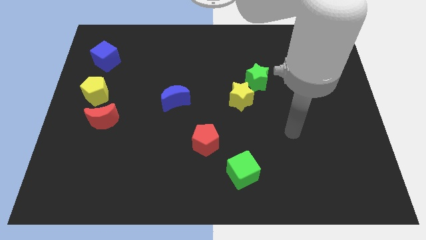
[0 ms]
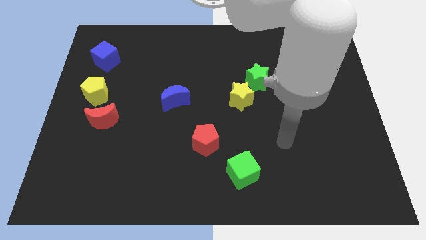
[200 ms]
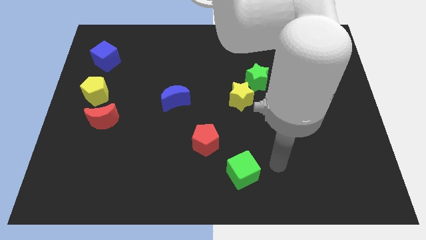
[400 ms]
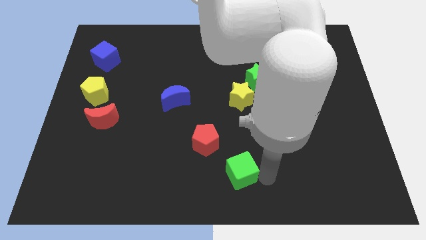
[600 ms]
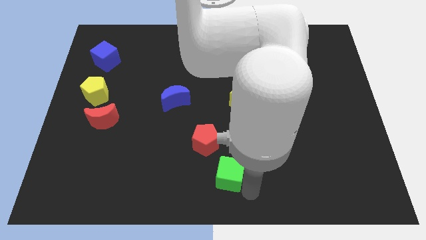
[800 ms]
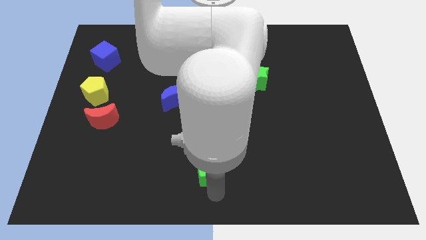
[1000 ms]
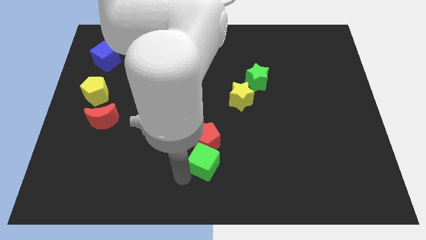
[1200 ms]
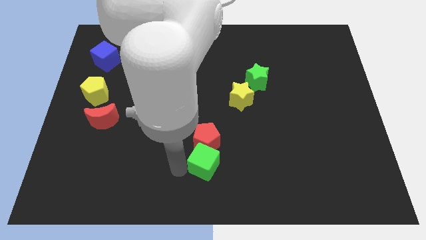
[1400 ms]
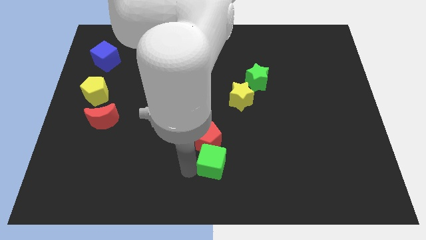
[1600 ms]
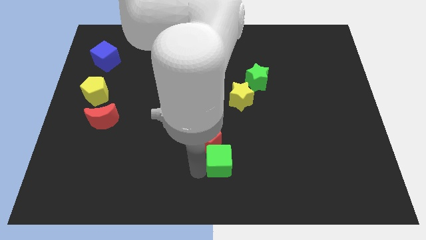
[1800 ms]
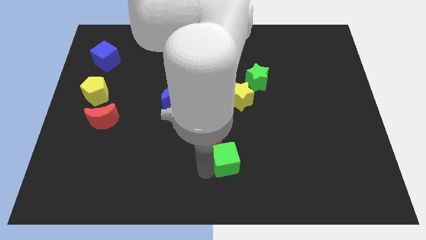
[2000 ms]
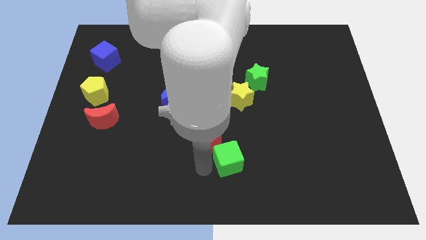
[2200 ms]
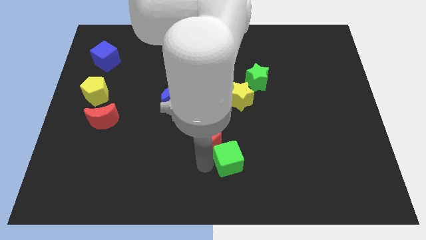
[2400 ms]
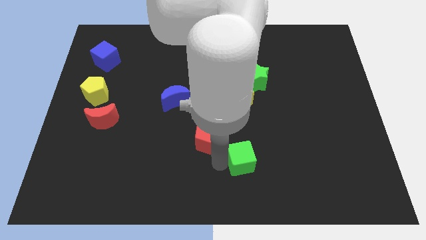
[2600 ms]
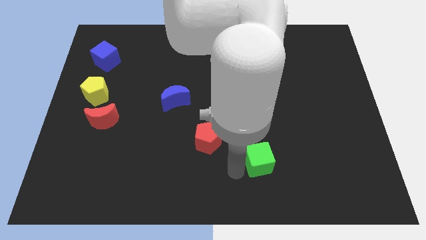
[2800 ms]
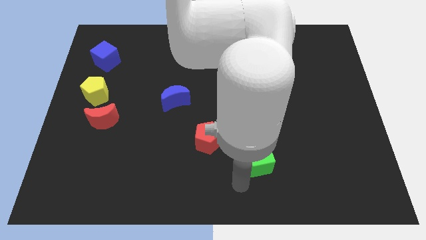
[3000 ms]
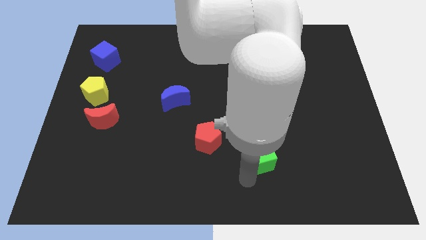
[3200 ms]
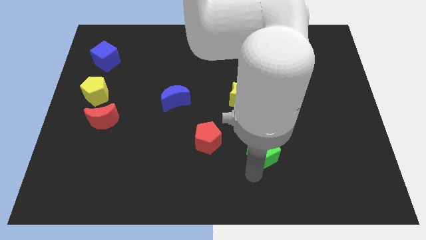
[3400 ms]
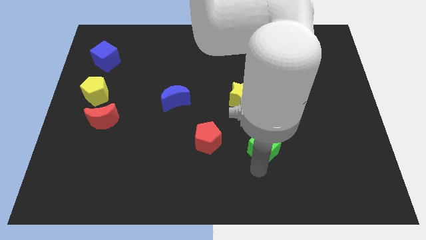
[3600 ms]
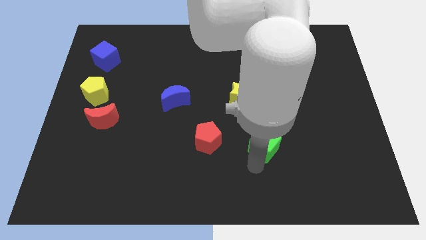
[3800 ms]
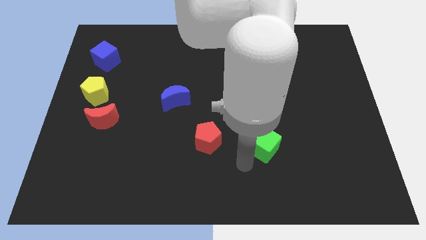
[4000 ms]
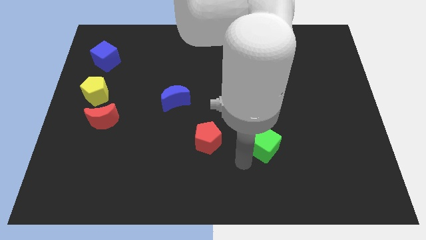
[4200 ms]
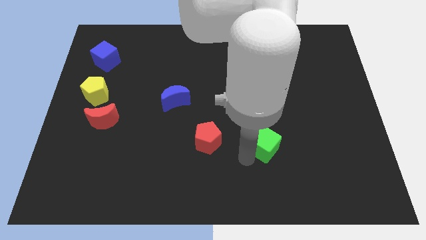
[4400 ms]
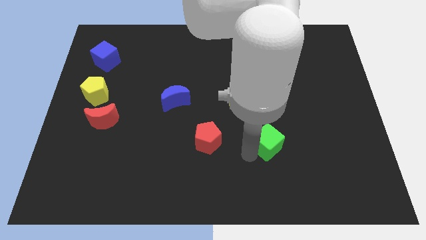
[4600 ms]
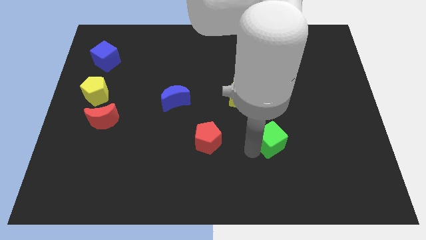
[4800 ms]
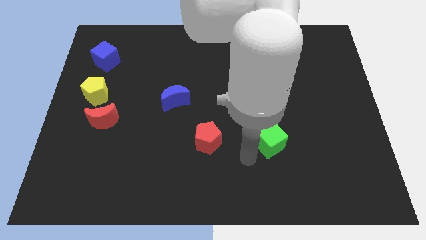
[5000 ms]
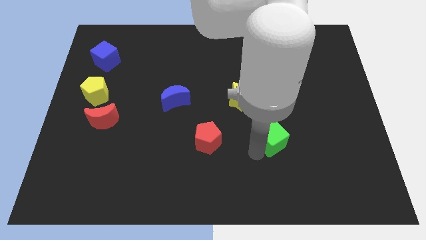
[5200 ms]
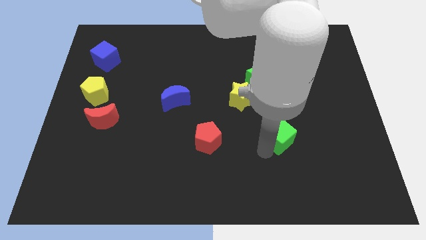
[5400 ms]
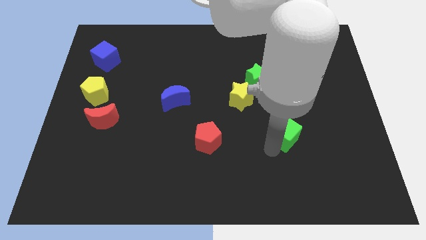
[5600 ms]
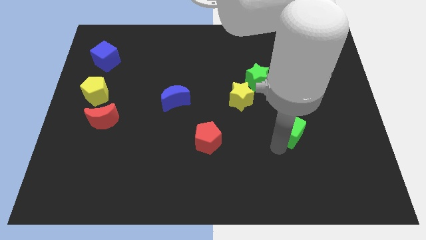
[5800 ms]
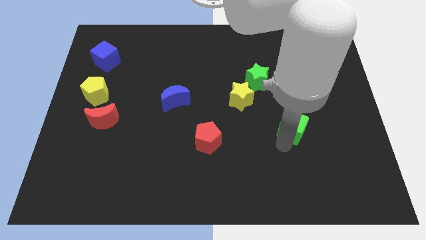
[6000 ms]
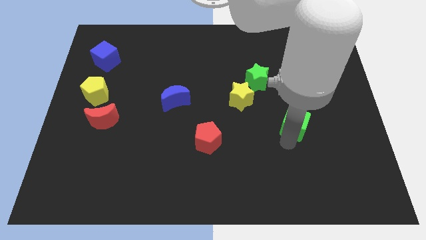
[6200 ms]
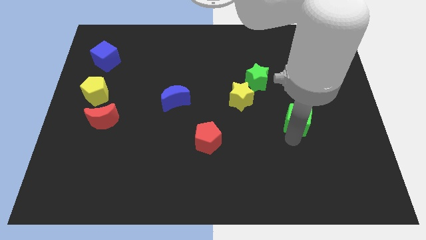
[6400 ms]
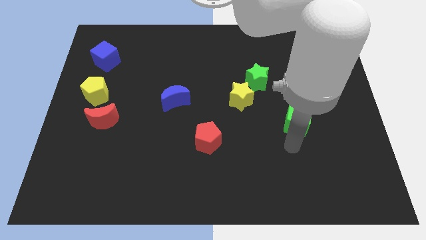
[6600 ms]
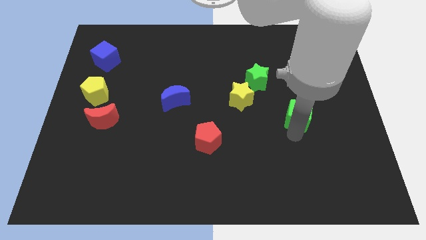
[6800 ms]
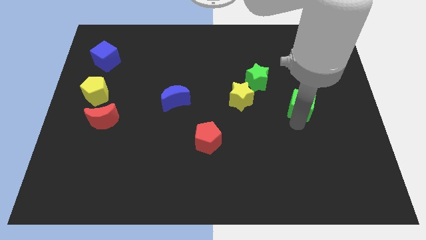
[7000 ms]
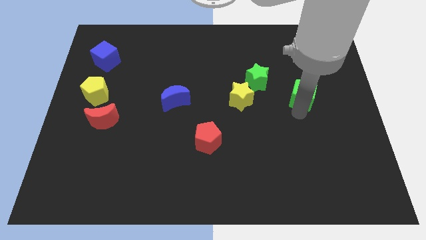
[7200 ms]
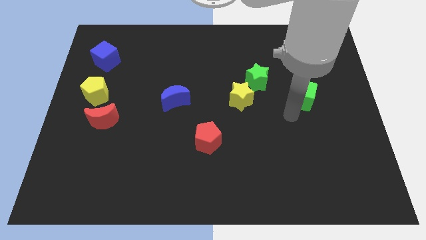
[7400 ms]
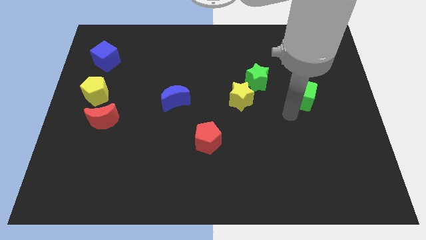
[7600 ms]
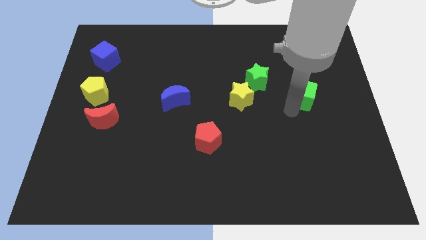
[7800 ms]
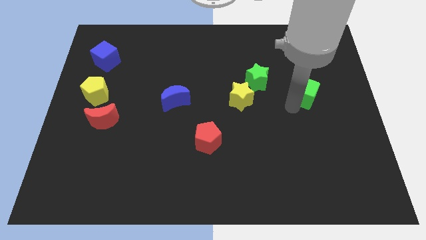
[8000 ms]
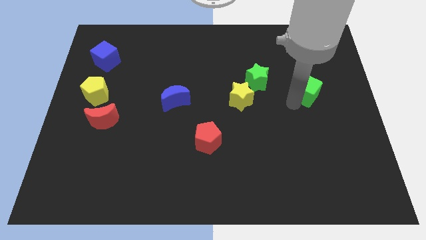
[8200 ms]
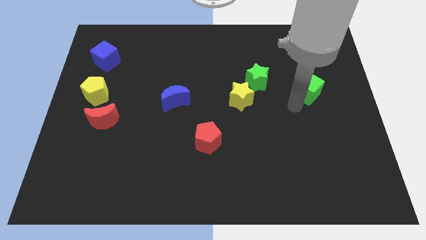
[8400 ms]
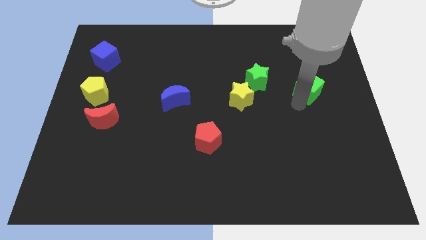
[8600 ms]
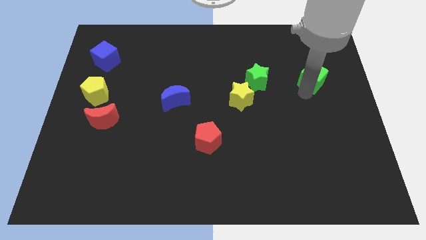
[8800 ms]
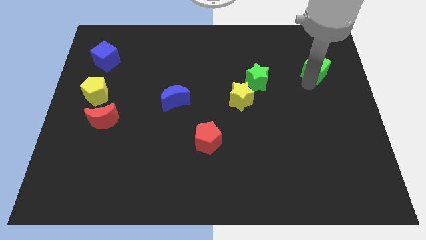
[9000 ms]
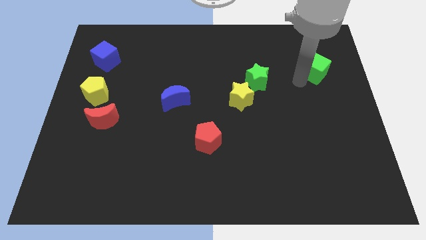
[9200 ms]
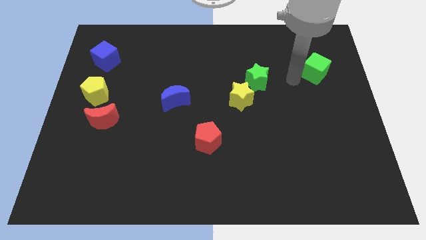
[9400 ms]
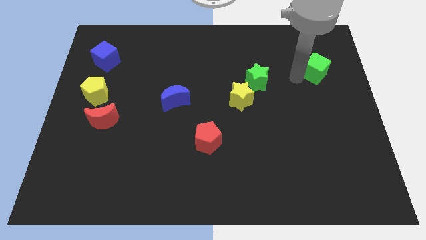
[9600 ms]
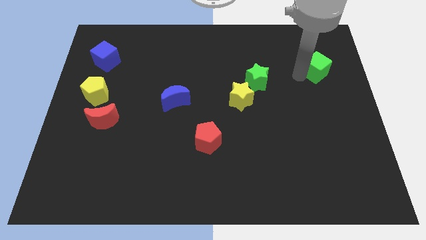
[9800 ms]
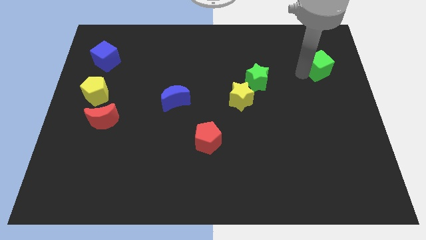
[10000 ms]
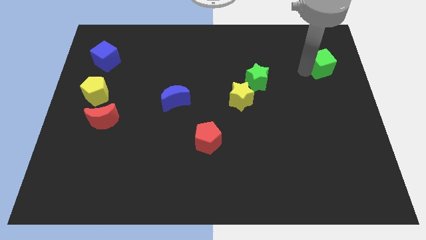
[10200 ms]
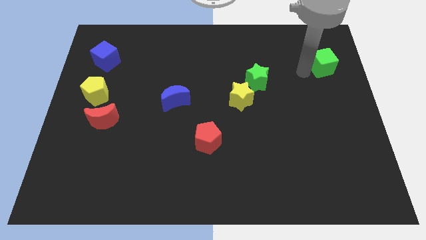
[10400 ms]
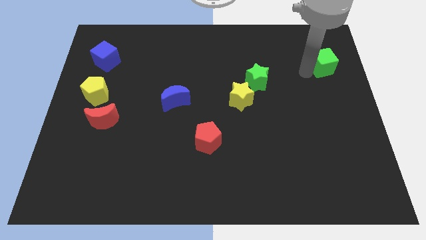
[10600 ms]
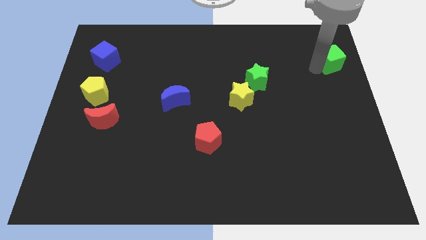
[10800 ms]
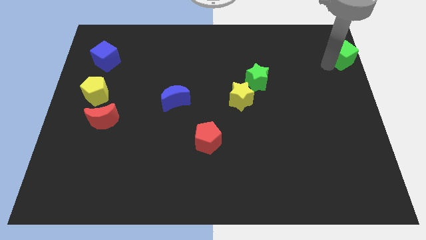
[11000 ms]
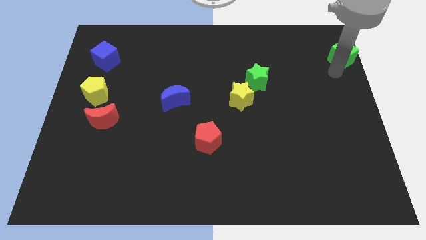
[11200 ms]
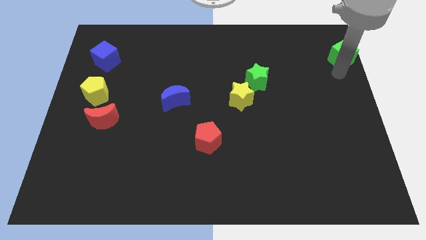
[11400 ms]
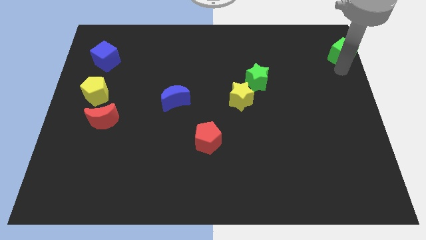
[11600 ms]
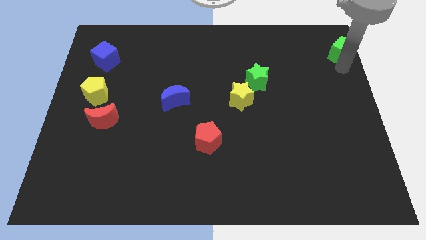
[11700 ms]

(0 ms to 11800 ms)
slide the green cube to the top right of the board

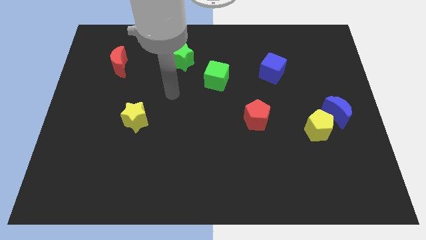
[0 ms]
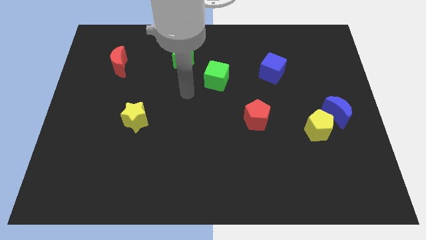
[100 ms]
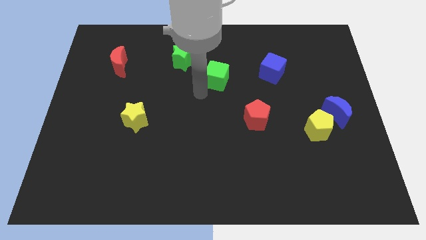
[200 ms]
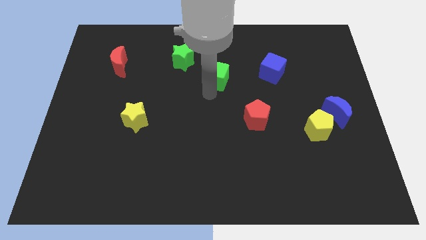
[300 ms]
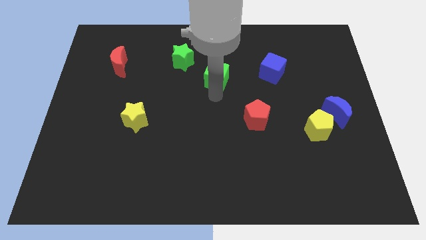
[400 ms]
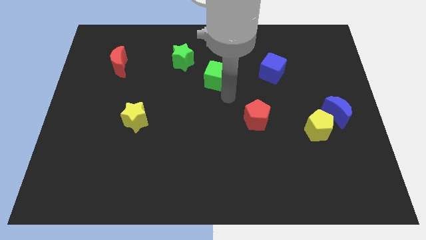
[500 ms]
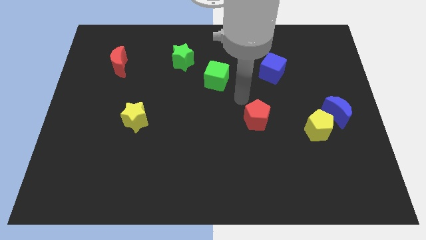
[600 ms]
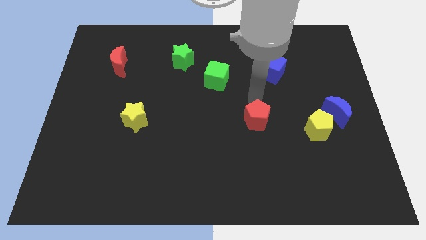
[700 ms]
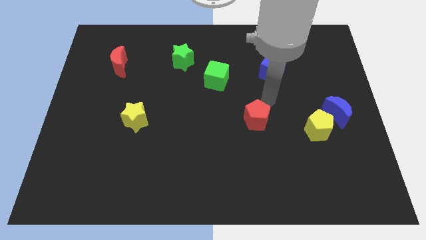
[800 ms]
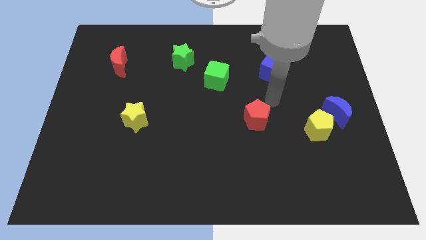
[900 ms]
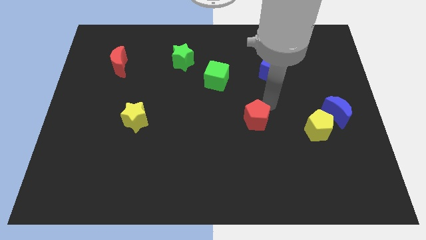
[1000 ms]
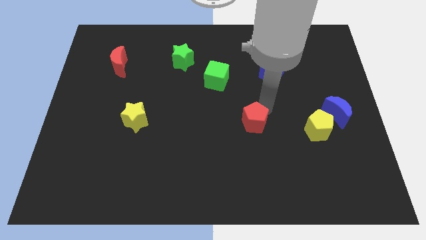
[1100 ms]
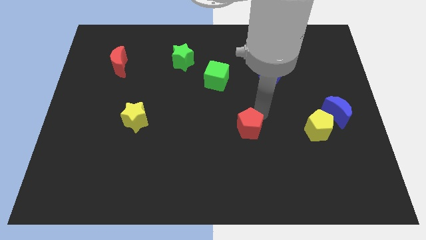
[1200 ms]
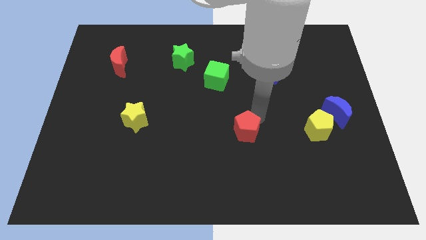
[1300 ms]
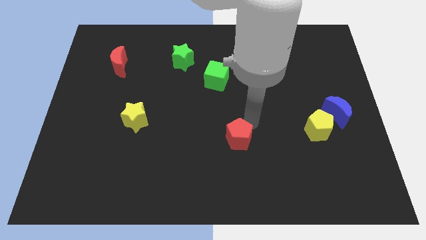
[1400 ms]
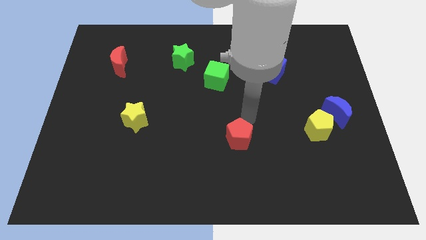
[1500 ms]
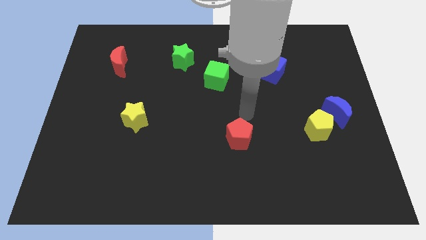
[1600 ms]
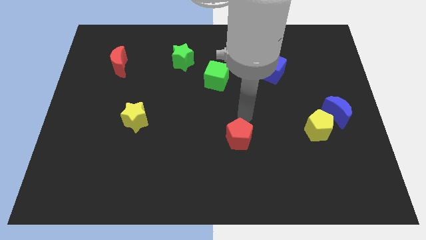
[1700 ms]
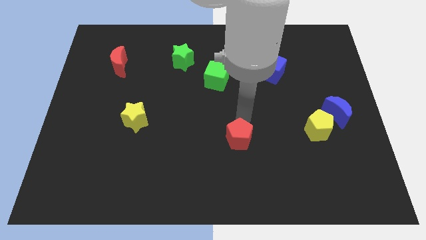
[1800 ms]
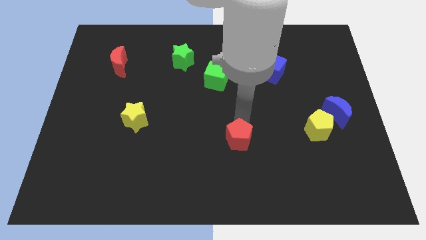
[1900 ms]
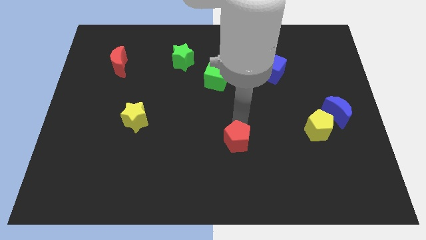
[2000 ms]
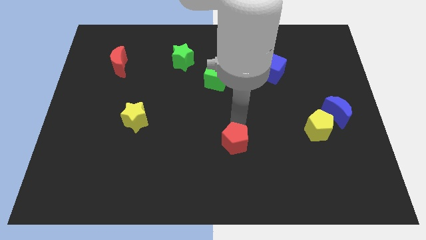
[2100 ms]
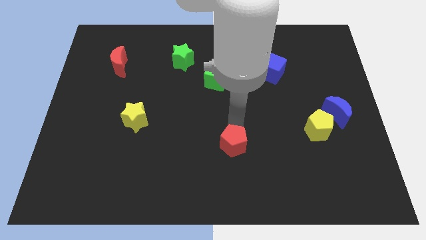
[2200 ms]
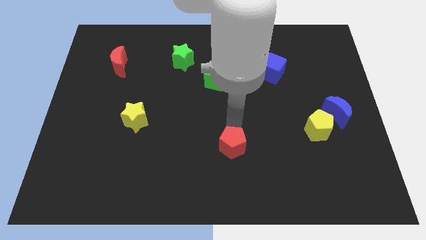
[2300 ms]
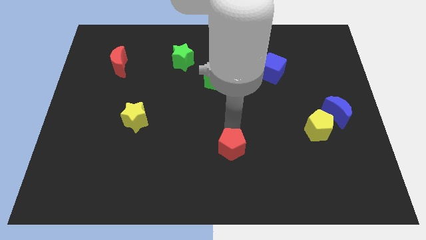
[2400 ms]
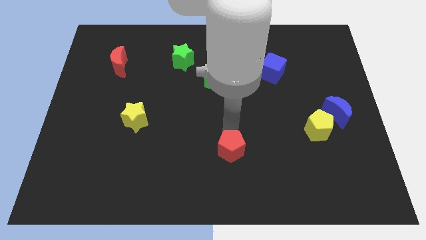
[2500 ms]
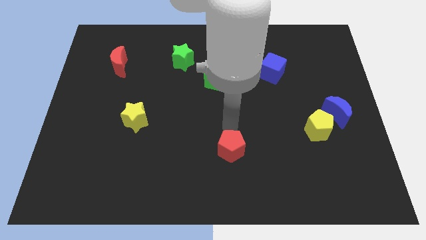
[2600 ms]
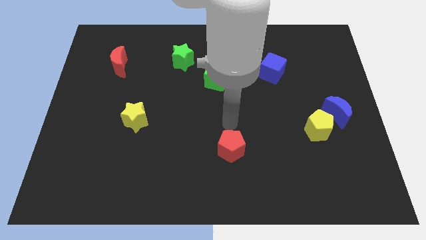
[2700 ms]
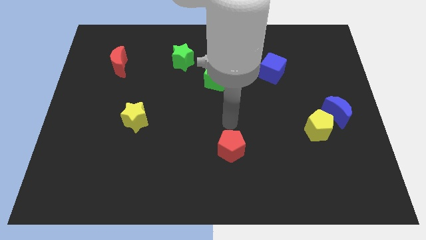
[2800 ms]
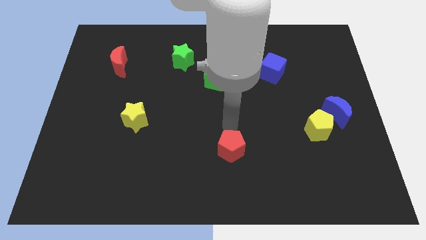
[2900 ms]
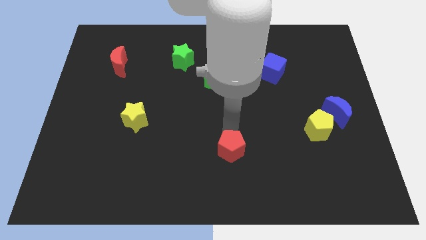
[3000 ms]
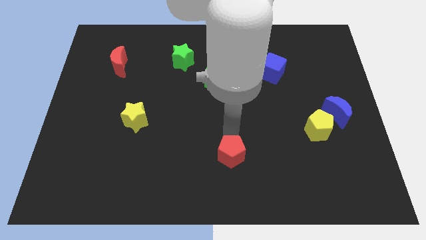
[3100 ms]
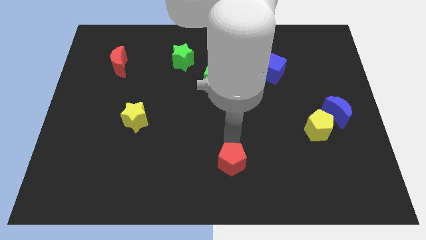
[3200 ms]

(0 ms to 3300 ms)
slide the red pentagon to the bottom side
